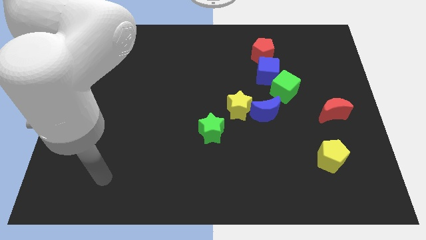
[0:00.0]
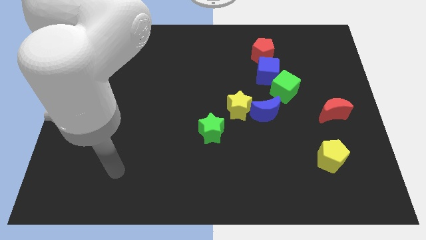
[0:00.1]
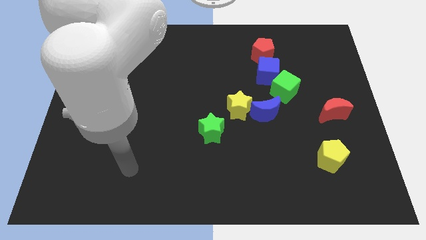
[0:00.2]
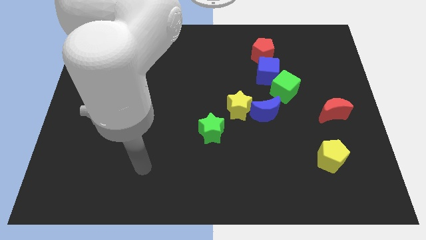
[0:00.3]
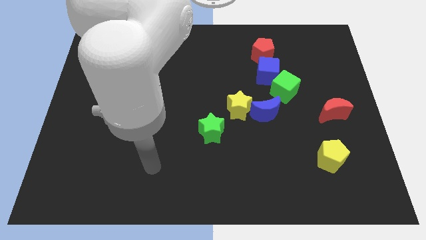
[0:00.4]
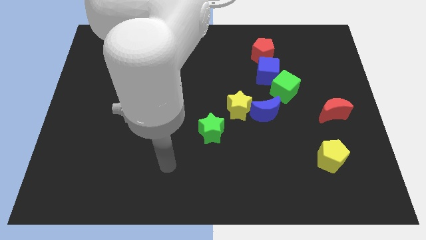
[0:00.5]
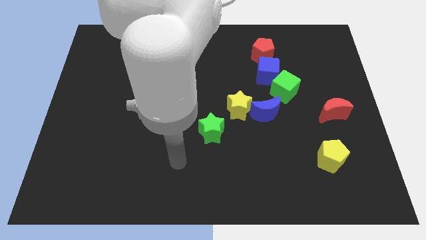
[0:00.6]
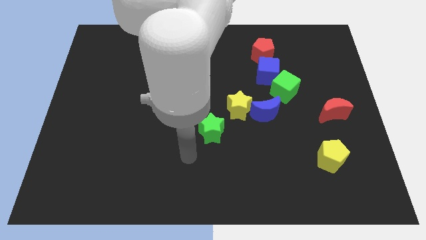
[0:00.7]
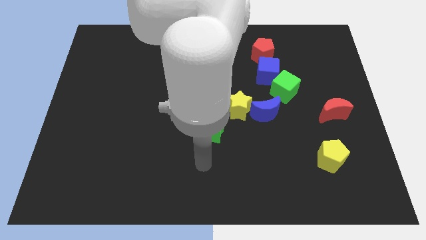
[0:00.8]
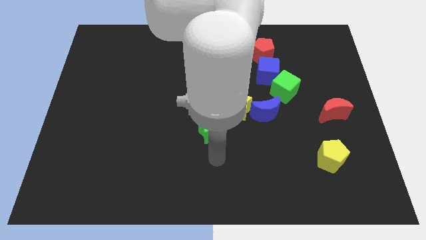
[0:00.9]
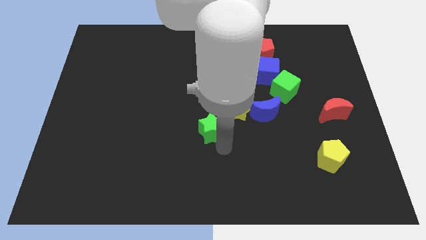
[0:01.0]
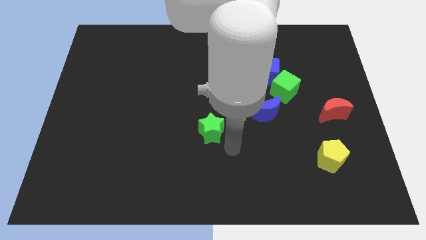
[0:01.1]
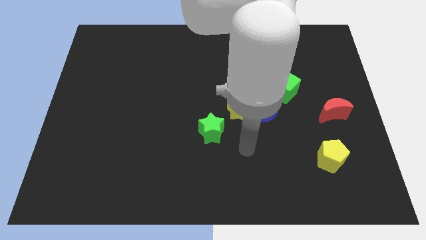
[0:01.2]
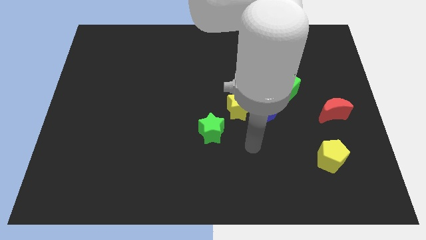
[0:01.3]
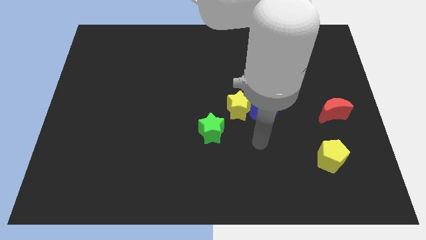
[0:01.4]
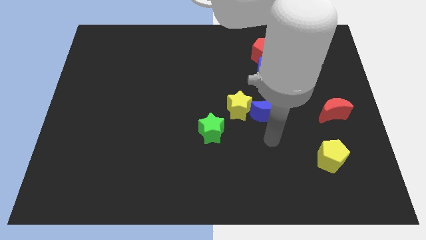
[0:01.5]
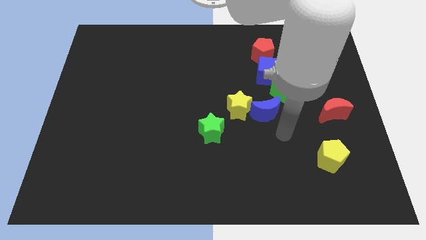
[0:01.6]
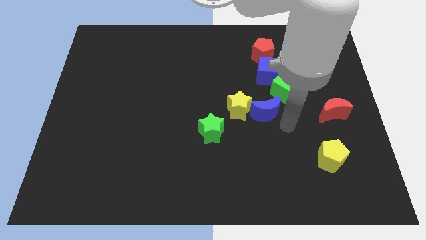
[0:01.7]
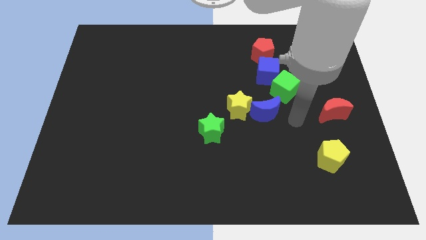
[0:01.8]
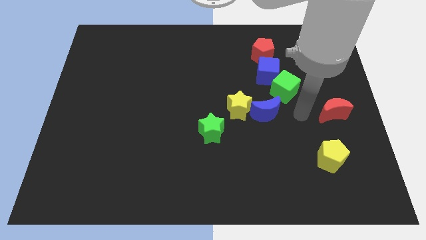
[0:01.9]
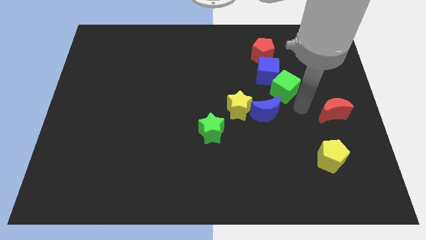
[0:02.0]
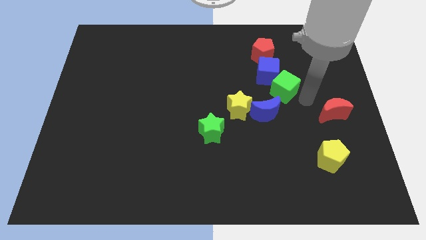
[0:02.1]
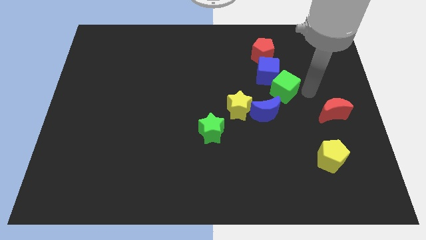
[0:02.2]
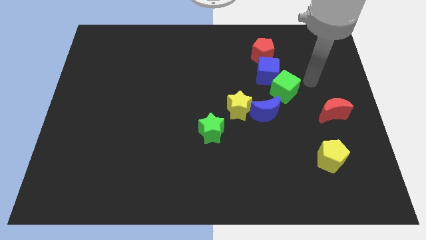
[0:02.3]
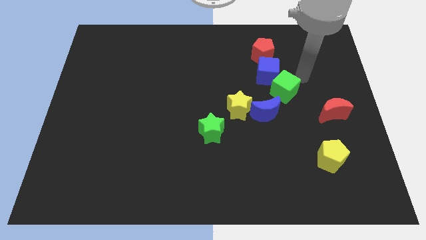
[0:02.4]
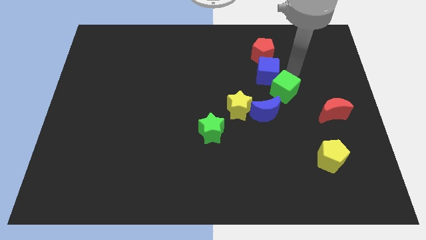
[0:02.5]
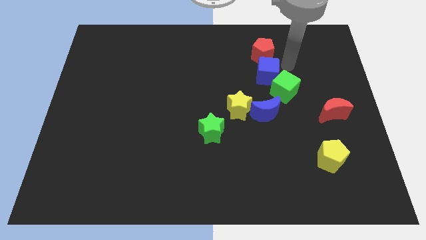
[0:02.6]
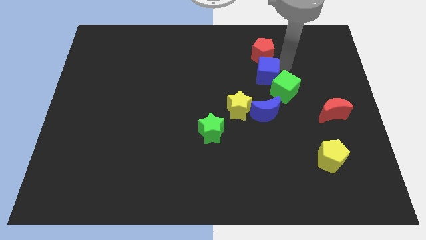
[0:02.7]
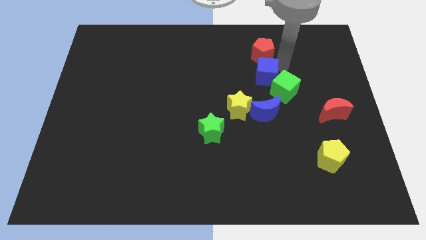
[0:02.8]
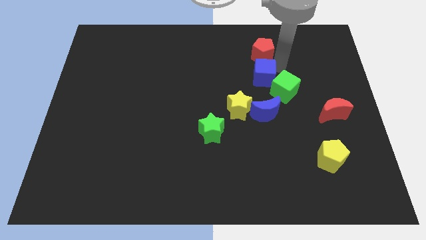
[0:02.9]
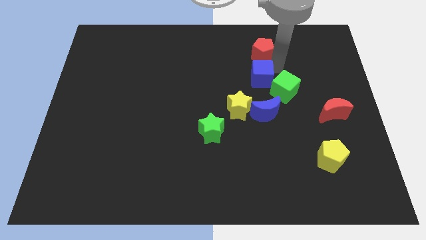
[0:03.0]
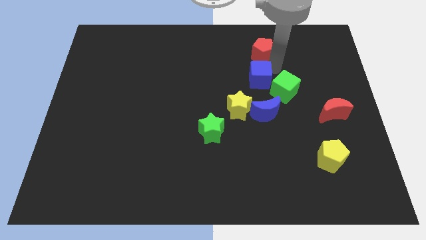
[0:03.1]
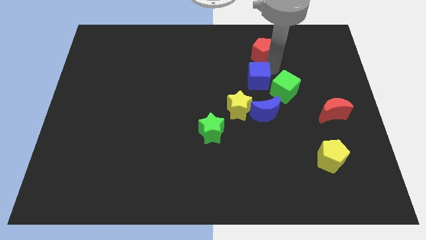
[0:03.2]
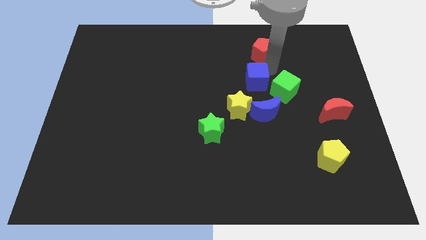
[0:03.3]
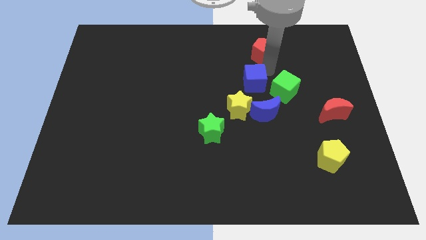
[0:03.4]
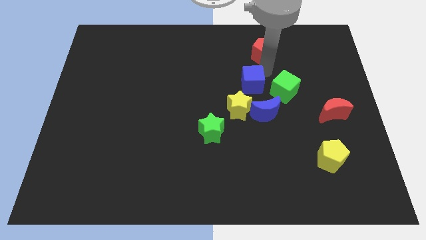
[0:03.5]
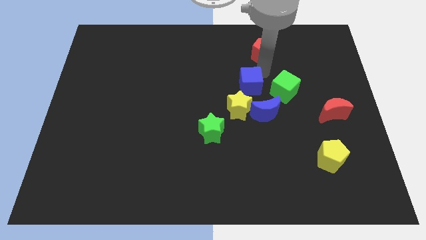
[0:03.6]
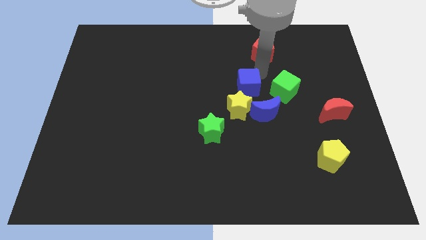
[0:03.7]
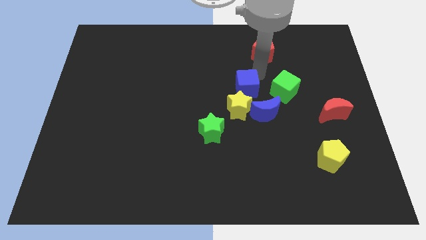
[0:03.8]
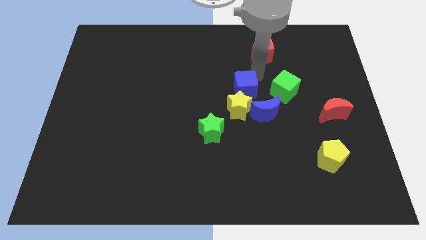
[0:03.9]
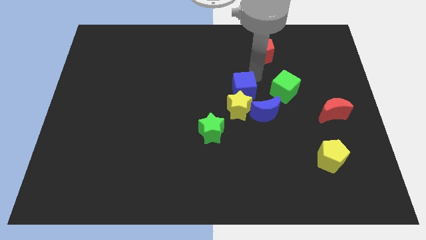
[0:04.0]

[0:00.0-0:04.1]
pull the blue cube apart from the green cube and red pentagon

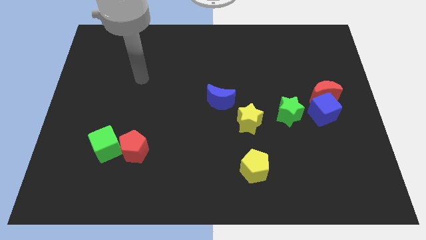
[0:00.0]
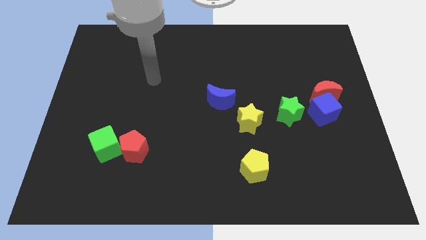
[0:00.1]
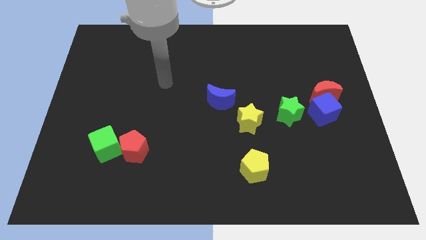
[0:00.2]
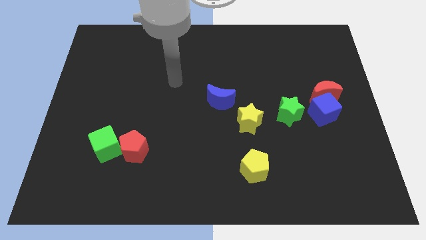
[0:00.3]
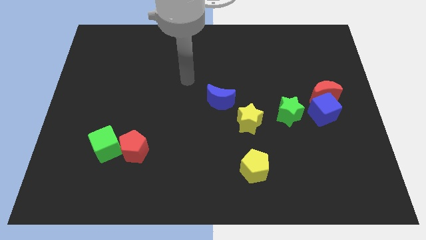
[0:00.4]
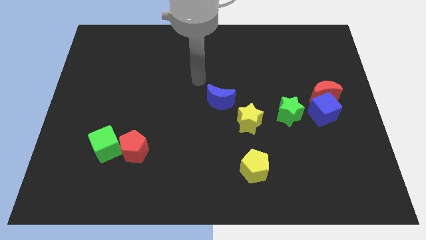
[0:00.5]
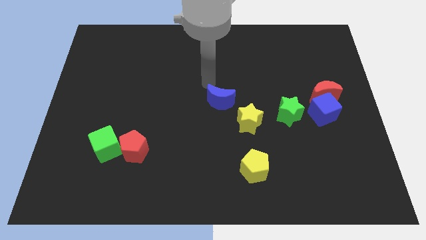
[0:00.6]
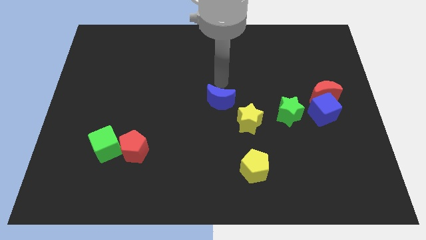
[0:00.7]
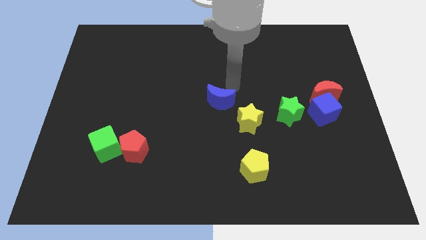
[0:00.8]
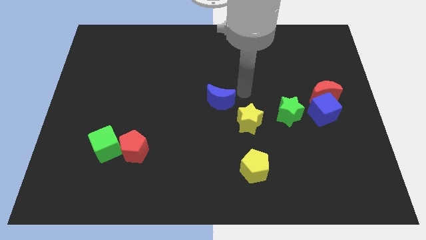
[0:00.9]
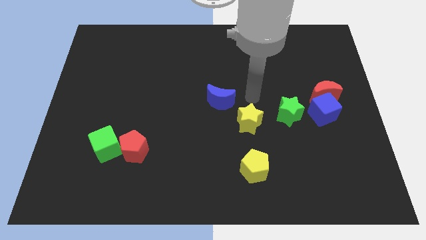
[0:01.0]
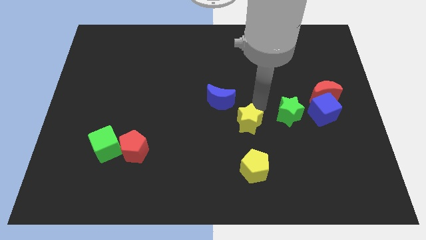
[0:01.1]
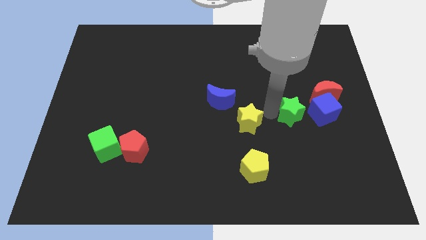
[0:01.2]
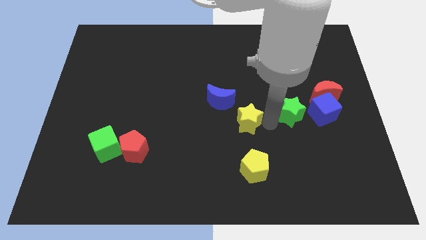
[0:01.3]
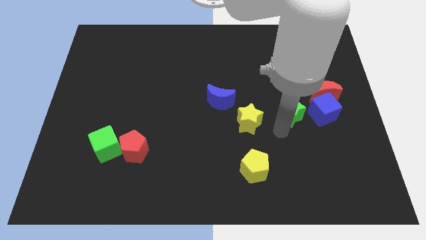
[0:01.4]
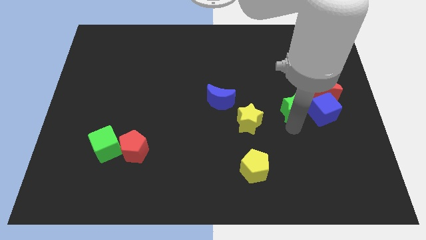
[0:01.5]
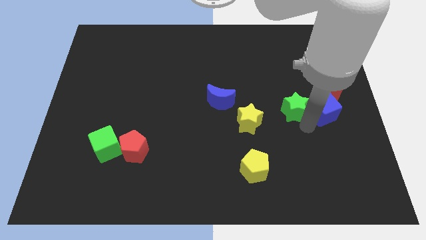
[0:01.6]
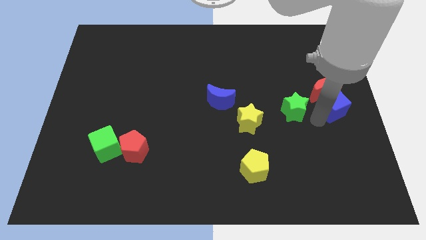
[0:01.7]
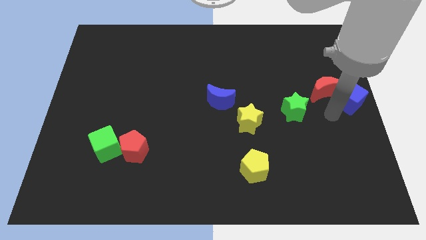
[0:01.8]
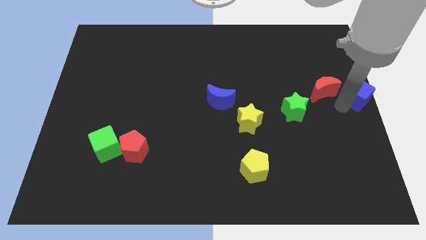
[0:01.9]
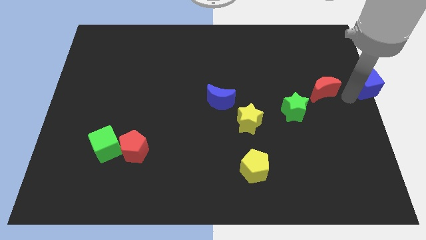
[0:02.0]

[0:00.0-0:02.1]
move the red moon away from the blue cube

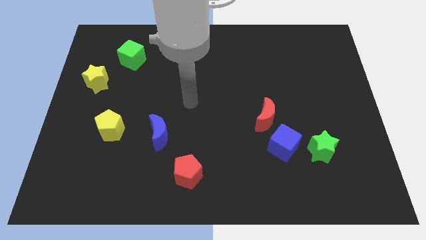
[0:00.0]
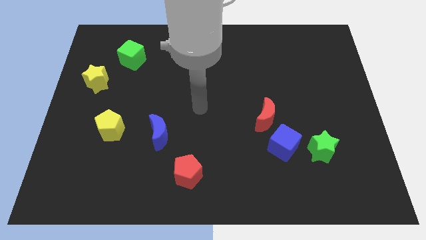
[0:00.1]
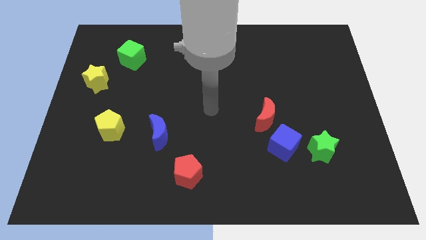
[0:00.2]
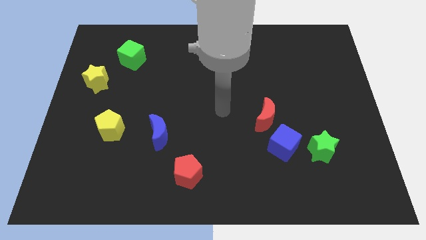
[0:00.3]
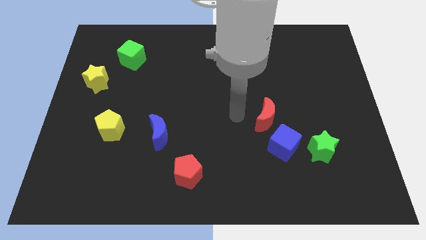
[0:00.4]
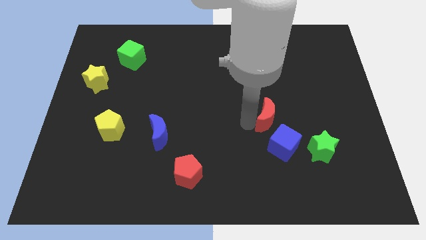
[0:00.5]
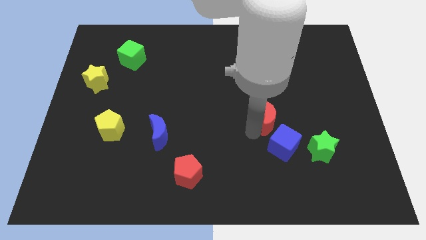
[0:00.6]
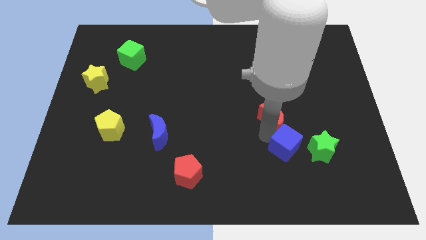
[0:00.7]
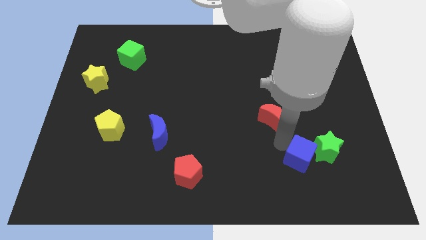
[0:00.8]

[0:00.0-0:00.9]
pull the red moon apart from the blue cube

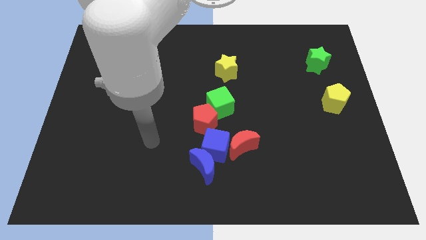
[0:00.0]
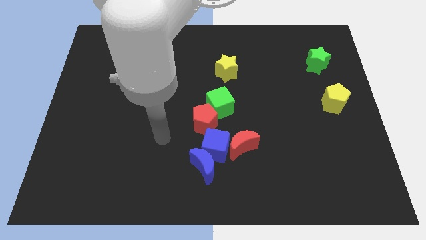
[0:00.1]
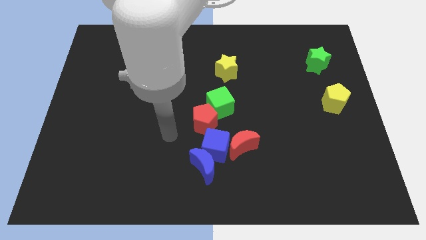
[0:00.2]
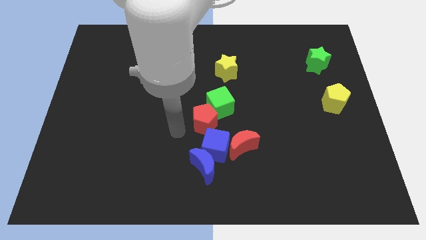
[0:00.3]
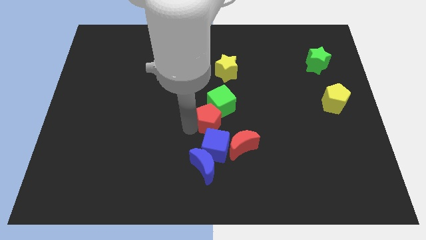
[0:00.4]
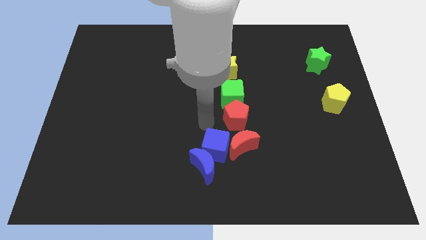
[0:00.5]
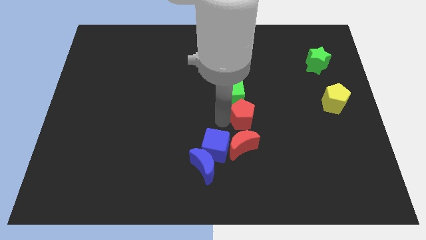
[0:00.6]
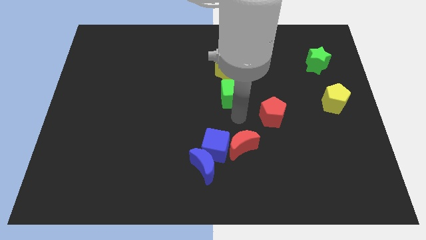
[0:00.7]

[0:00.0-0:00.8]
move the green cube away from the red pentagon

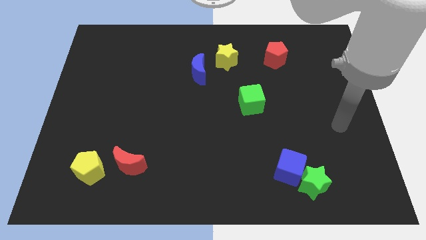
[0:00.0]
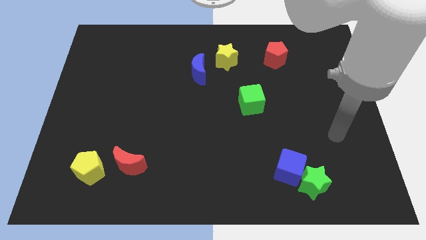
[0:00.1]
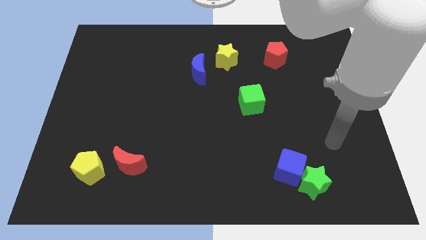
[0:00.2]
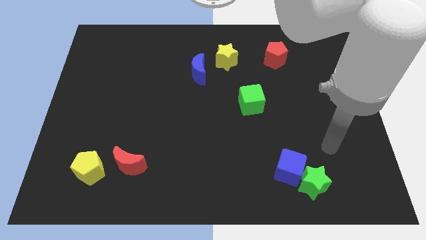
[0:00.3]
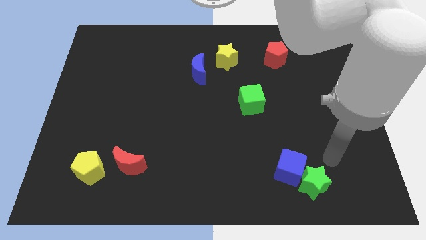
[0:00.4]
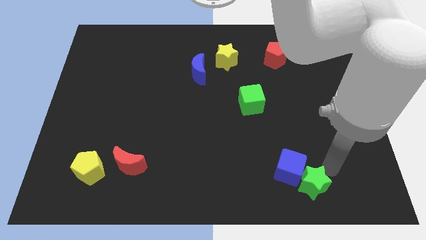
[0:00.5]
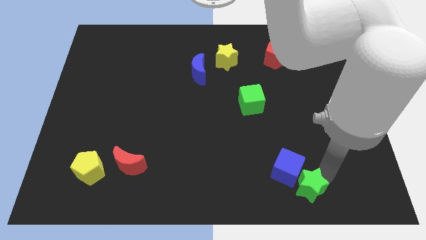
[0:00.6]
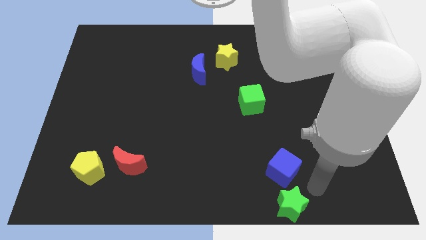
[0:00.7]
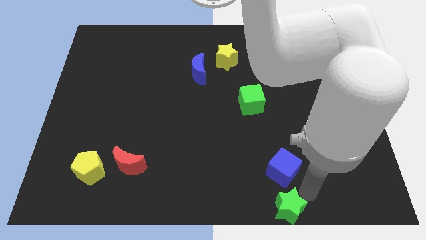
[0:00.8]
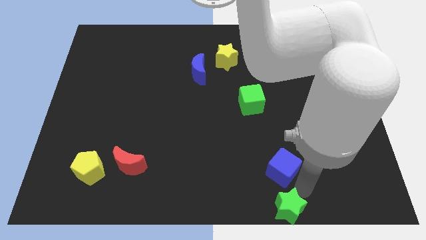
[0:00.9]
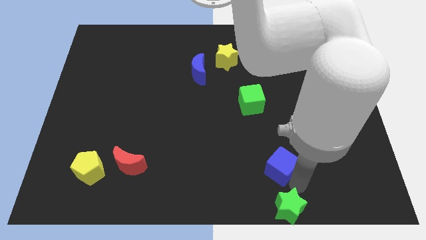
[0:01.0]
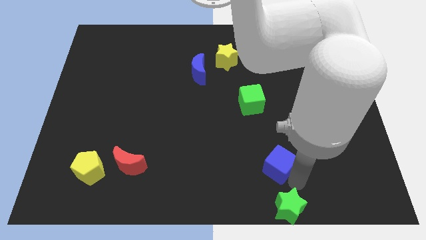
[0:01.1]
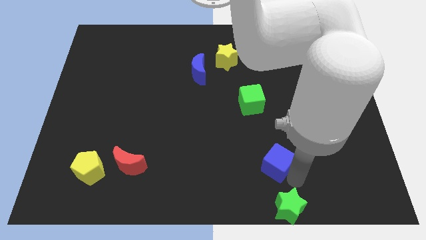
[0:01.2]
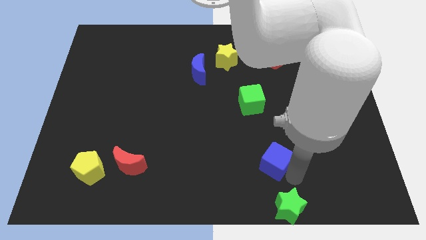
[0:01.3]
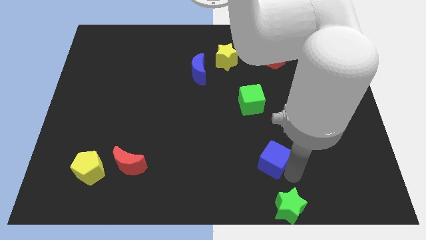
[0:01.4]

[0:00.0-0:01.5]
separate the blue cube from the green star
